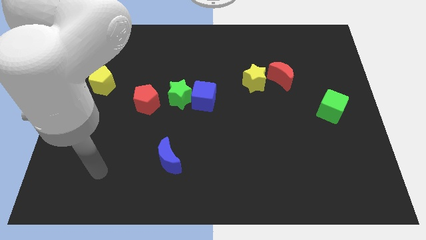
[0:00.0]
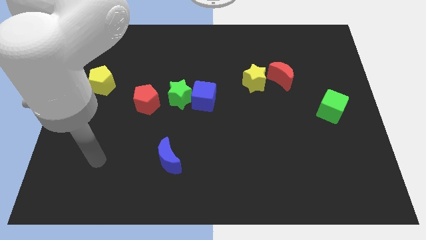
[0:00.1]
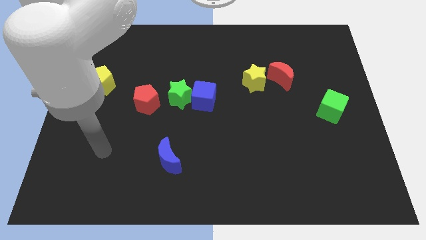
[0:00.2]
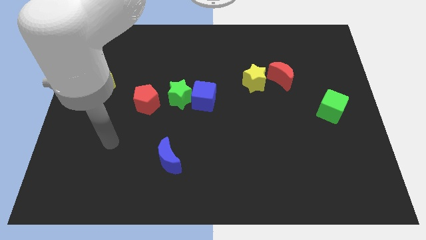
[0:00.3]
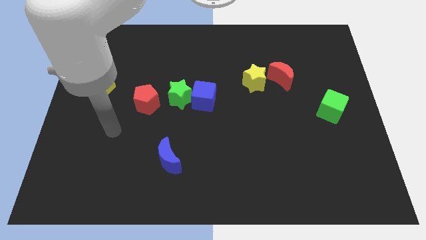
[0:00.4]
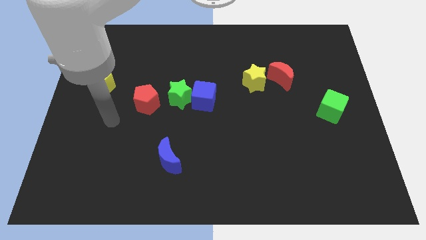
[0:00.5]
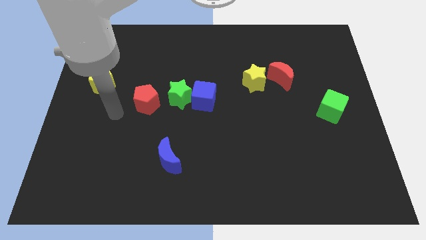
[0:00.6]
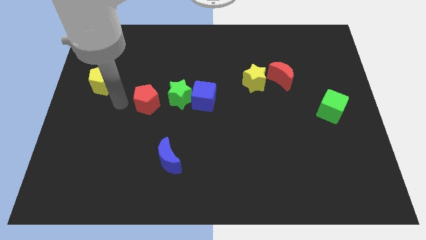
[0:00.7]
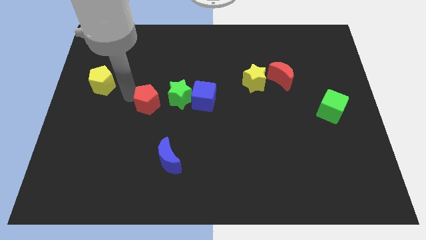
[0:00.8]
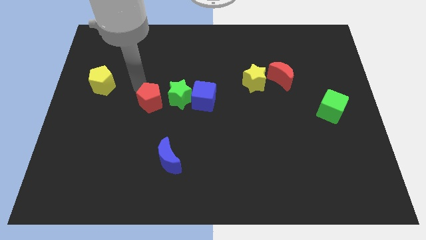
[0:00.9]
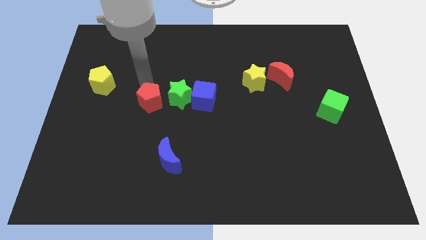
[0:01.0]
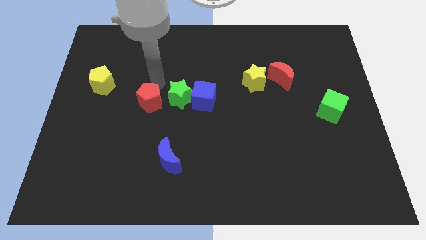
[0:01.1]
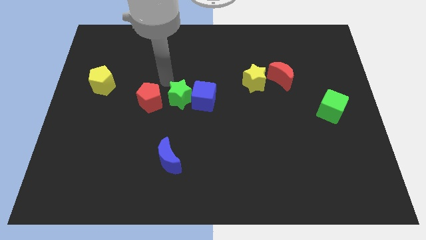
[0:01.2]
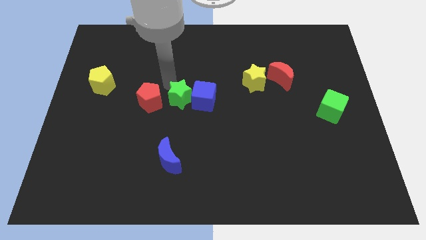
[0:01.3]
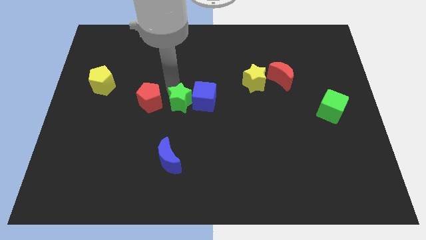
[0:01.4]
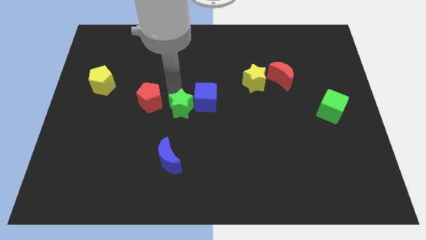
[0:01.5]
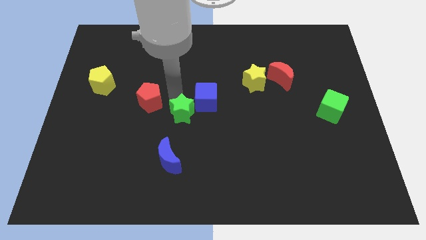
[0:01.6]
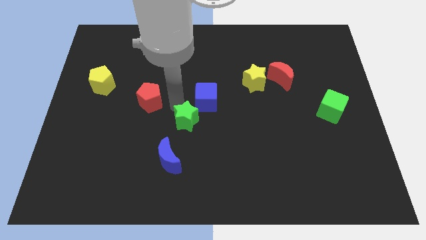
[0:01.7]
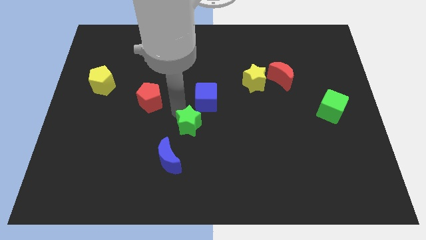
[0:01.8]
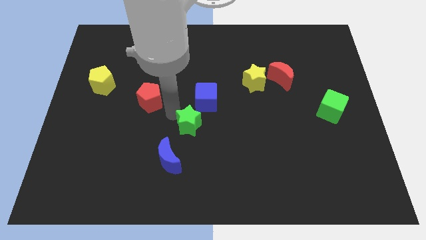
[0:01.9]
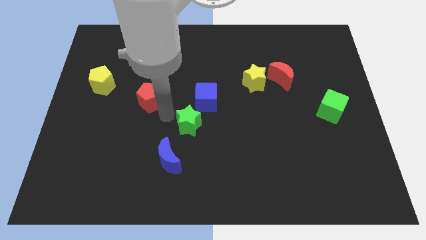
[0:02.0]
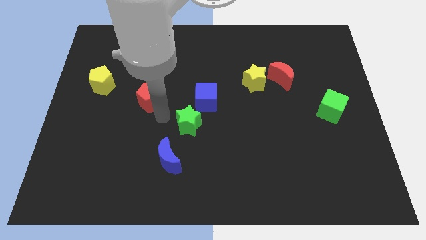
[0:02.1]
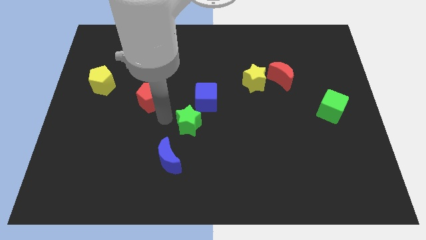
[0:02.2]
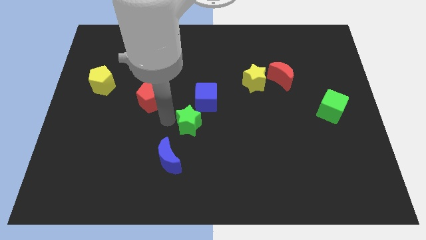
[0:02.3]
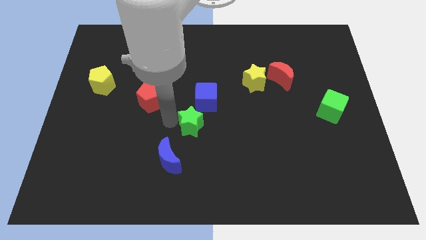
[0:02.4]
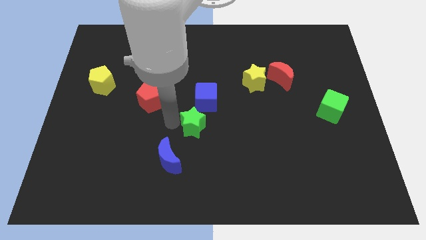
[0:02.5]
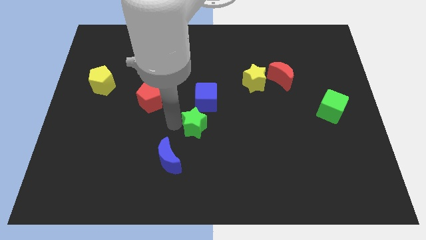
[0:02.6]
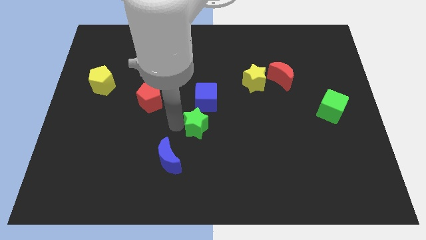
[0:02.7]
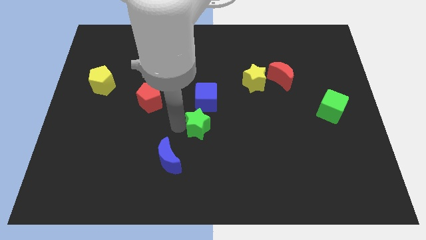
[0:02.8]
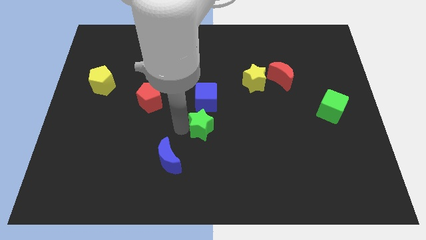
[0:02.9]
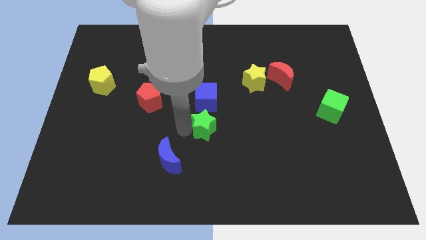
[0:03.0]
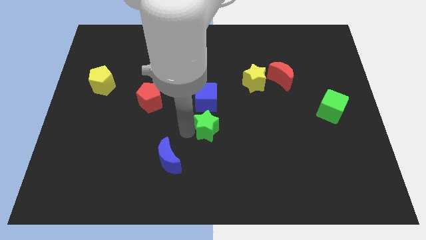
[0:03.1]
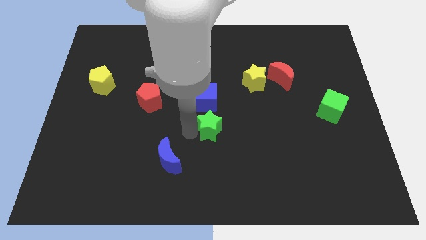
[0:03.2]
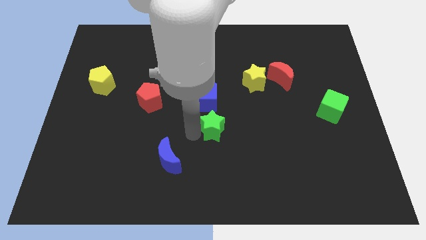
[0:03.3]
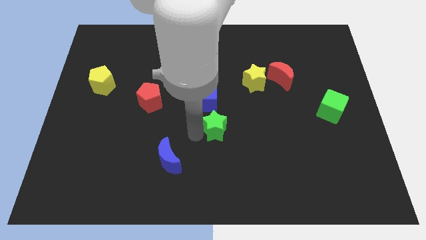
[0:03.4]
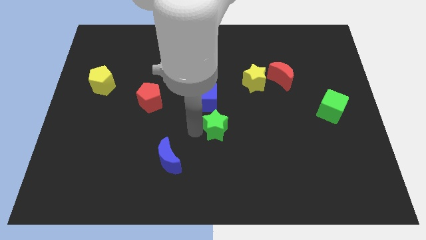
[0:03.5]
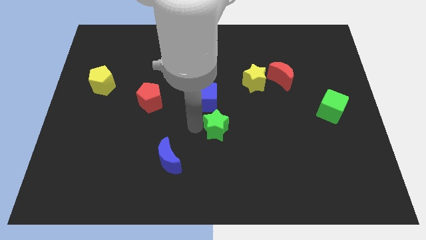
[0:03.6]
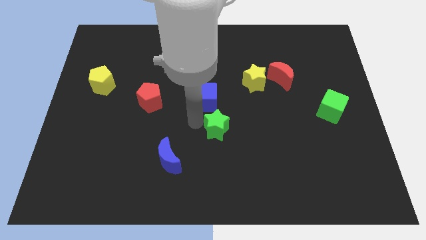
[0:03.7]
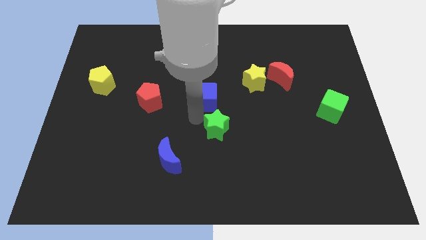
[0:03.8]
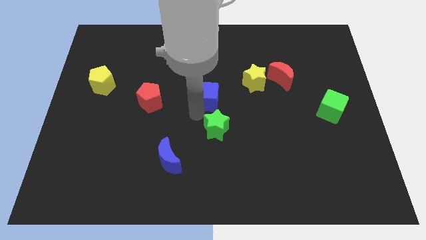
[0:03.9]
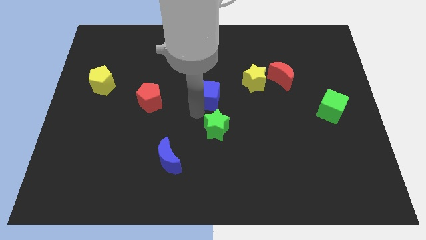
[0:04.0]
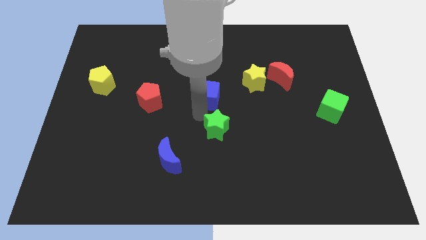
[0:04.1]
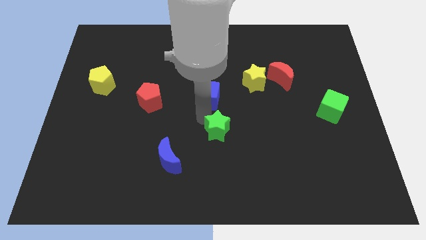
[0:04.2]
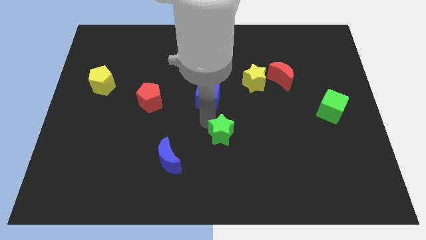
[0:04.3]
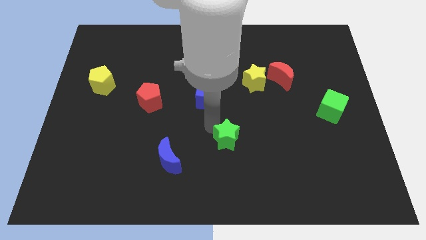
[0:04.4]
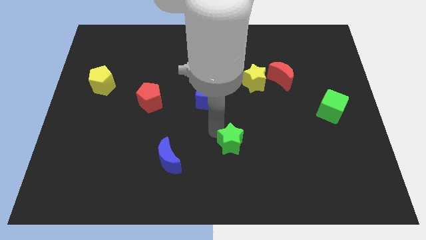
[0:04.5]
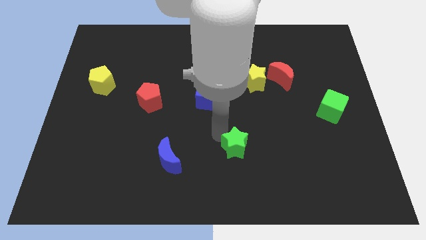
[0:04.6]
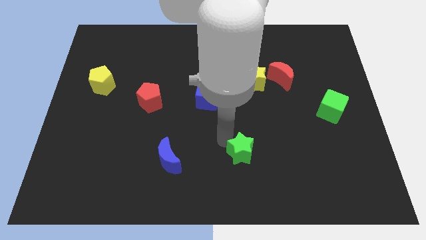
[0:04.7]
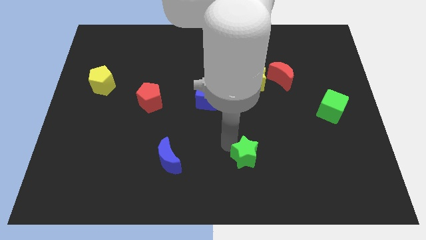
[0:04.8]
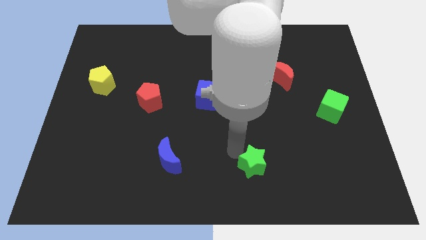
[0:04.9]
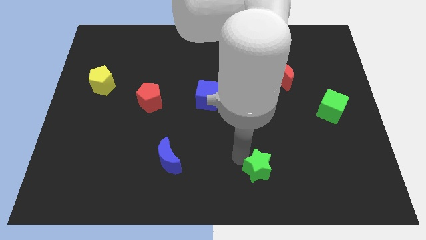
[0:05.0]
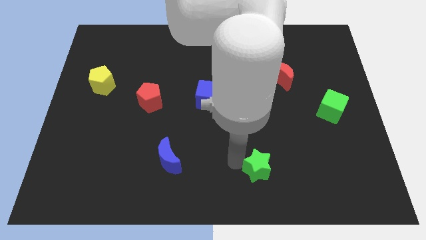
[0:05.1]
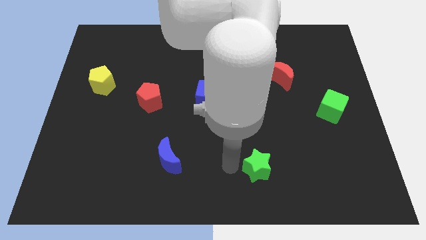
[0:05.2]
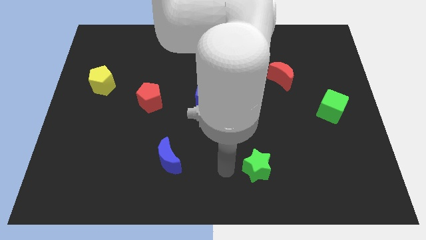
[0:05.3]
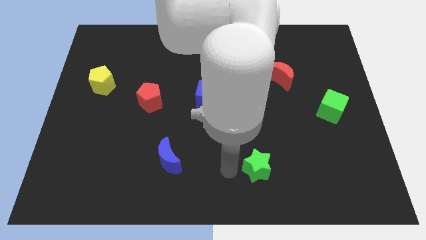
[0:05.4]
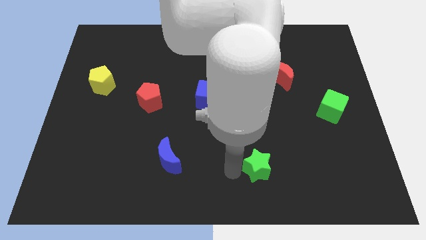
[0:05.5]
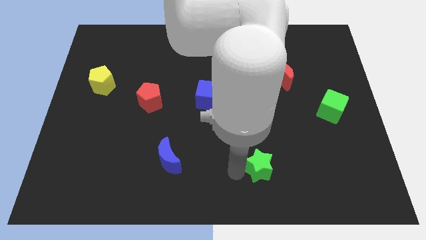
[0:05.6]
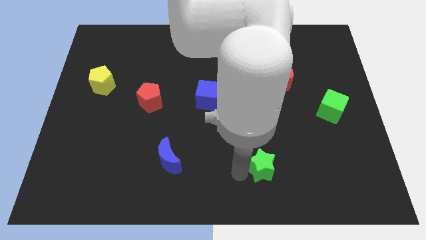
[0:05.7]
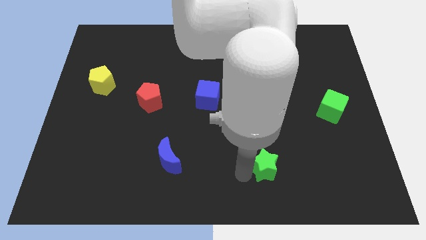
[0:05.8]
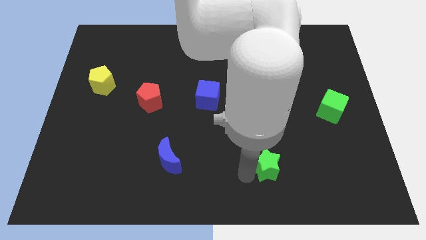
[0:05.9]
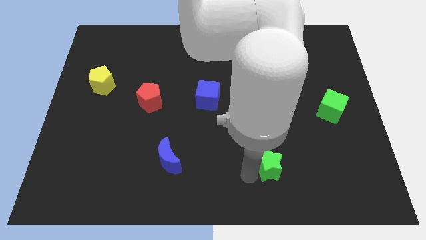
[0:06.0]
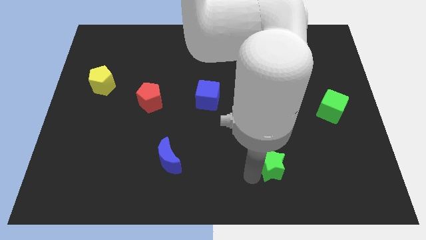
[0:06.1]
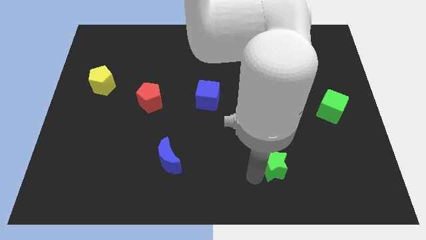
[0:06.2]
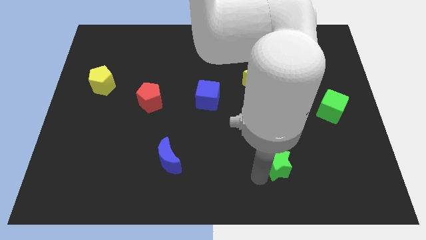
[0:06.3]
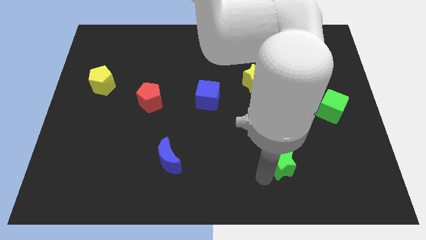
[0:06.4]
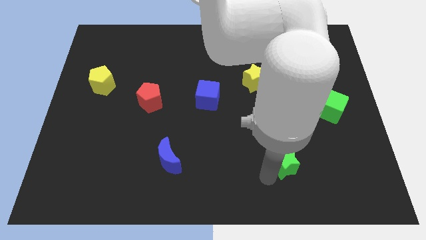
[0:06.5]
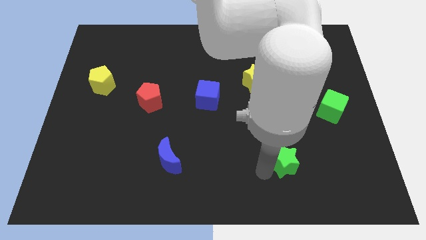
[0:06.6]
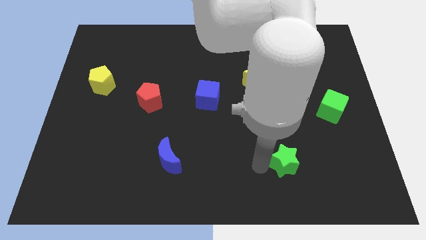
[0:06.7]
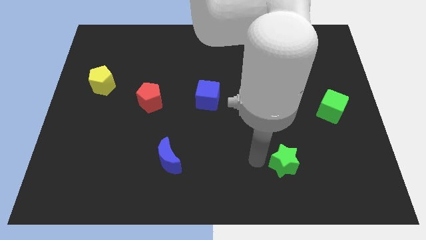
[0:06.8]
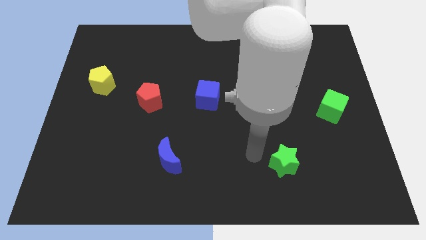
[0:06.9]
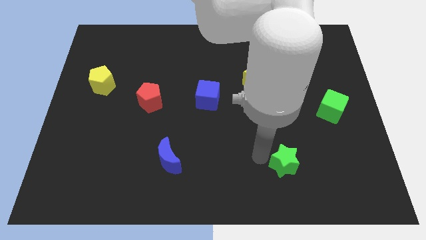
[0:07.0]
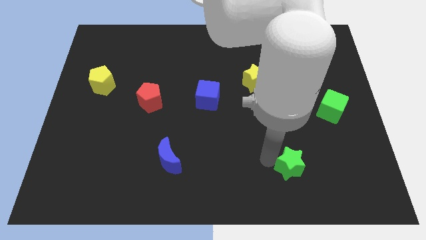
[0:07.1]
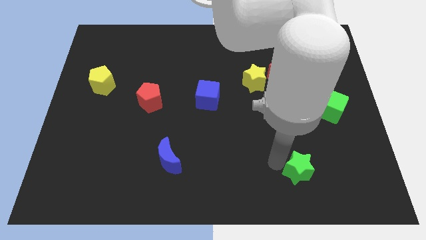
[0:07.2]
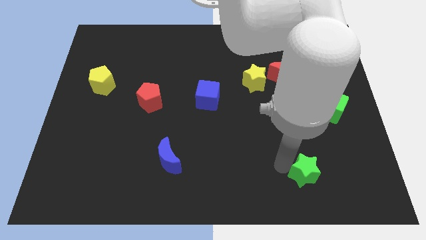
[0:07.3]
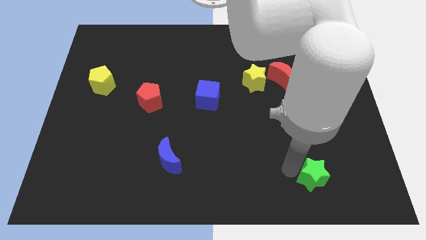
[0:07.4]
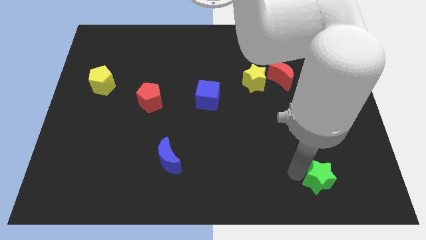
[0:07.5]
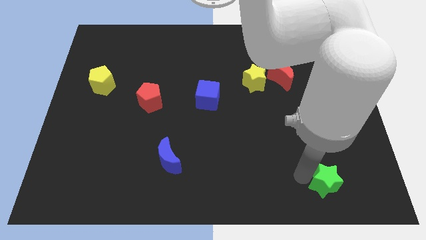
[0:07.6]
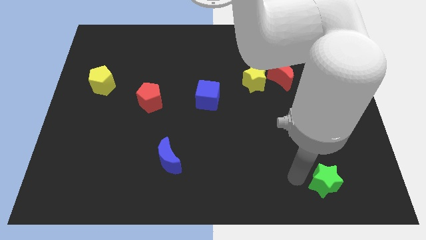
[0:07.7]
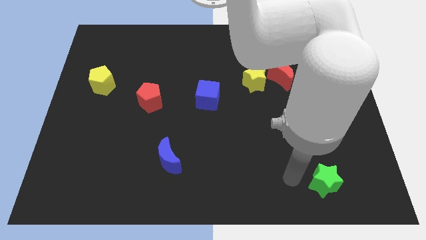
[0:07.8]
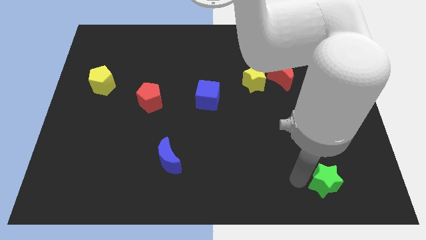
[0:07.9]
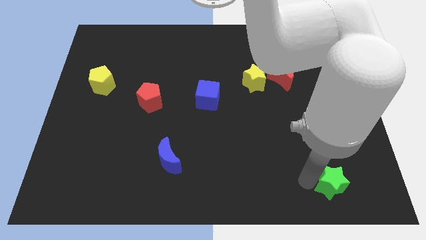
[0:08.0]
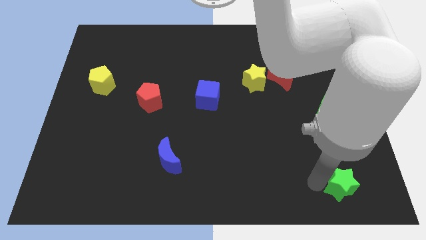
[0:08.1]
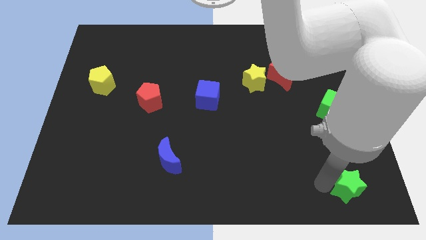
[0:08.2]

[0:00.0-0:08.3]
move the green star to the bottom right
